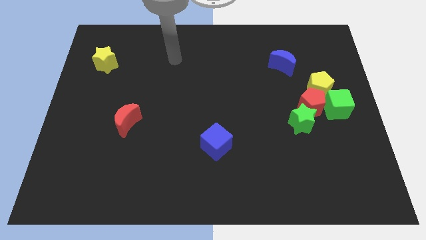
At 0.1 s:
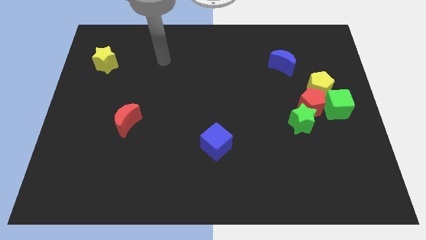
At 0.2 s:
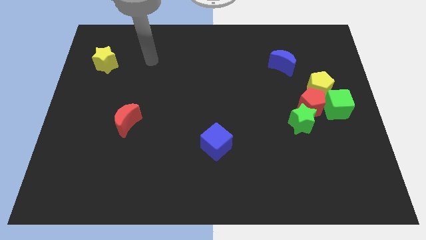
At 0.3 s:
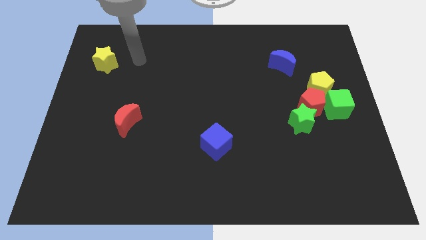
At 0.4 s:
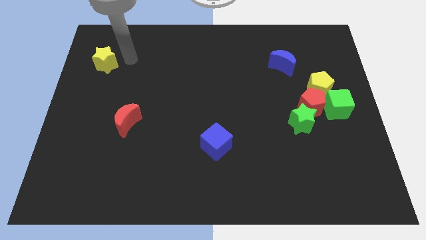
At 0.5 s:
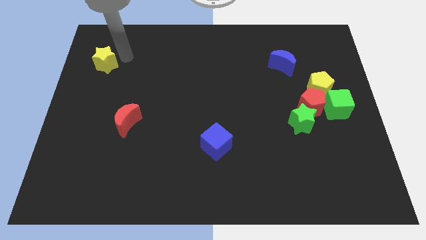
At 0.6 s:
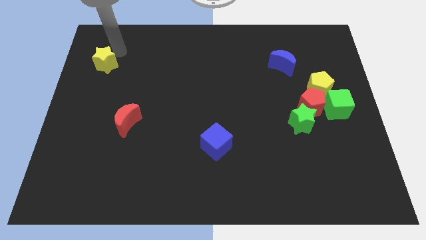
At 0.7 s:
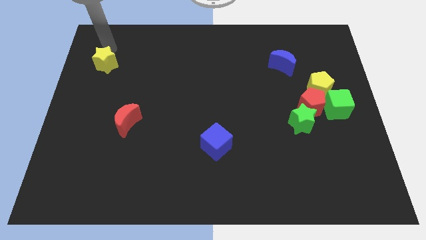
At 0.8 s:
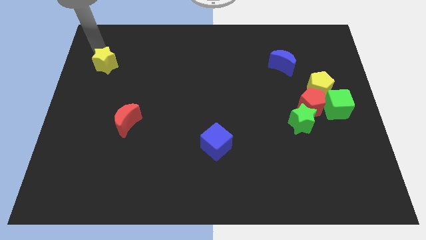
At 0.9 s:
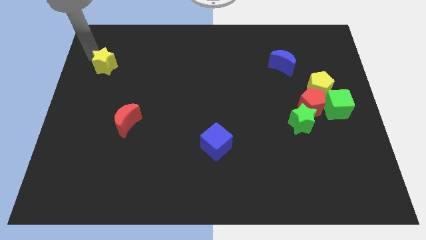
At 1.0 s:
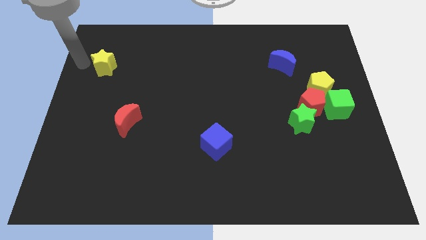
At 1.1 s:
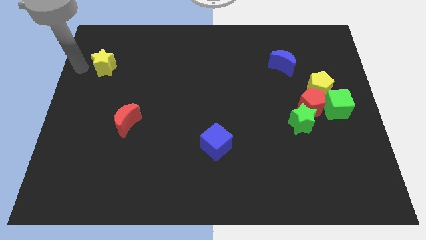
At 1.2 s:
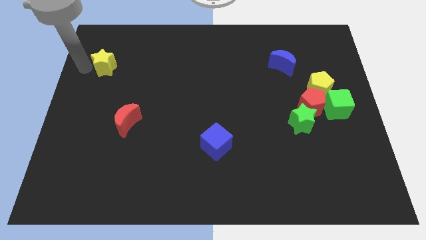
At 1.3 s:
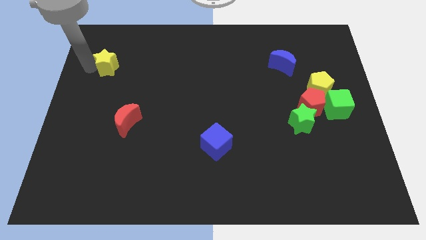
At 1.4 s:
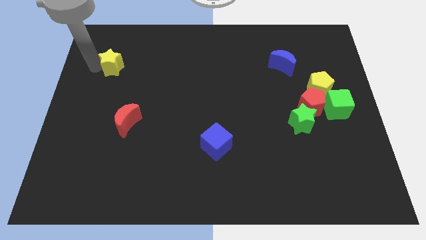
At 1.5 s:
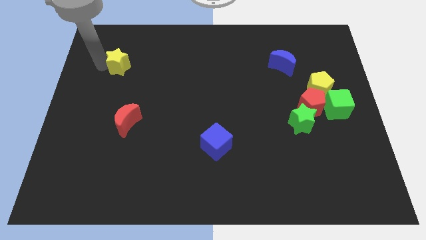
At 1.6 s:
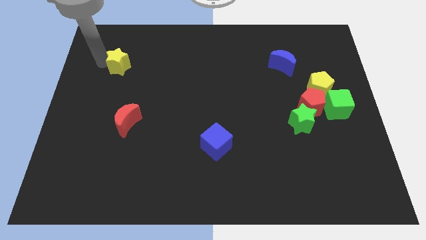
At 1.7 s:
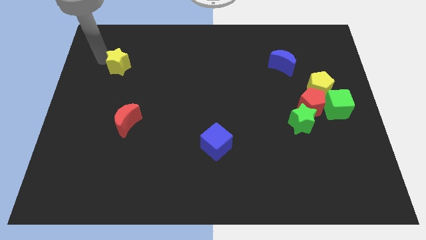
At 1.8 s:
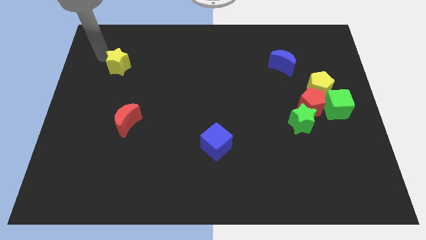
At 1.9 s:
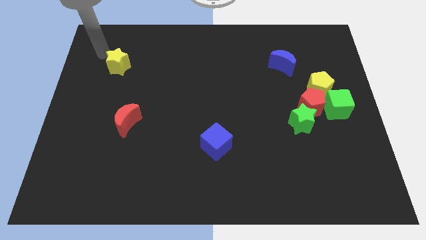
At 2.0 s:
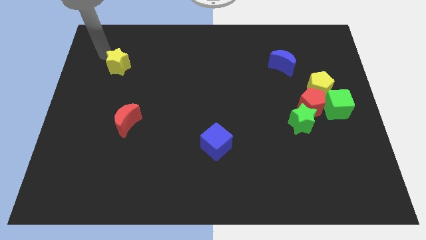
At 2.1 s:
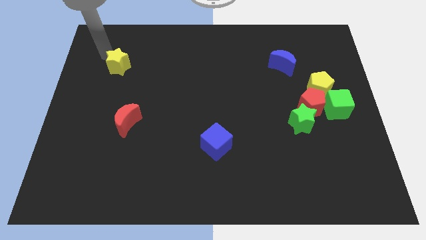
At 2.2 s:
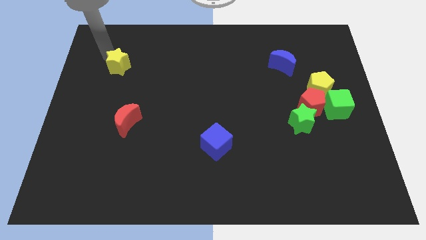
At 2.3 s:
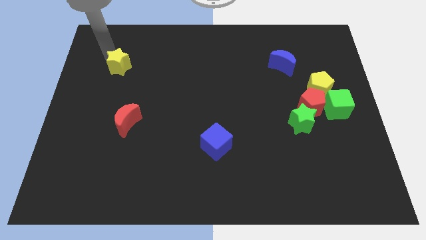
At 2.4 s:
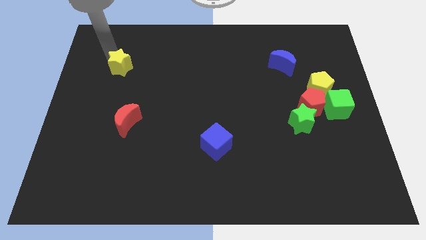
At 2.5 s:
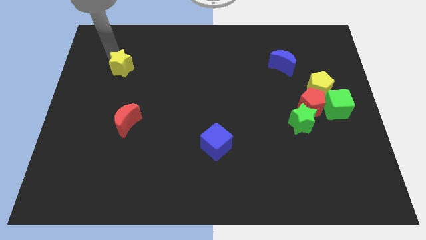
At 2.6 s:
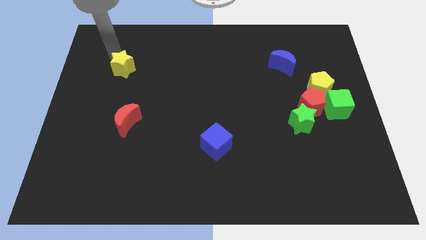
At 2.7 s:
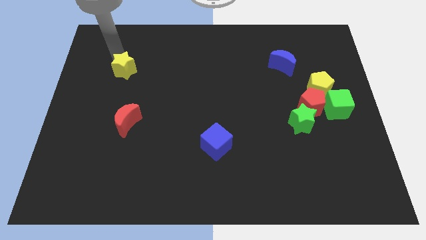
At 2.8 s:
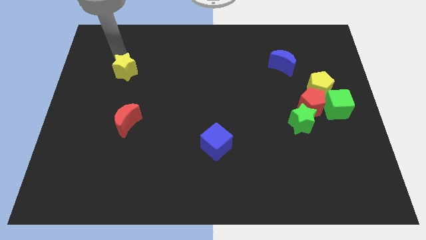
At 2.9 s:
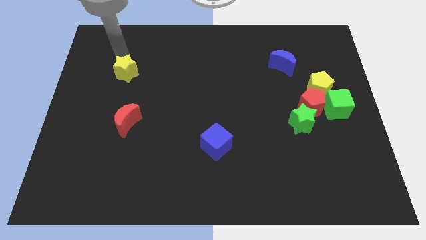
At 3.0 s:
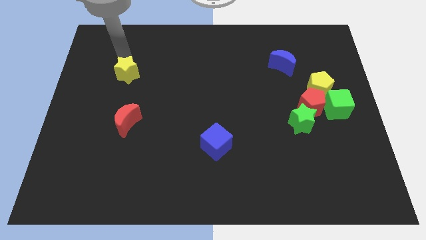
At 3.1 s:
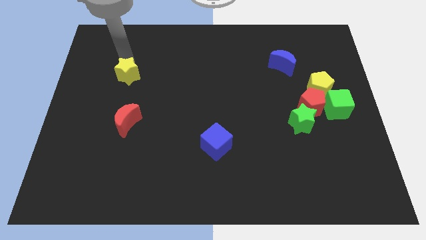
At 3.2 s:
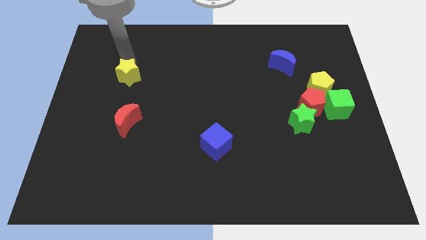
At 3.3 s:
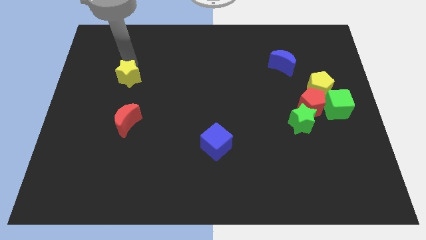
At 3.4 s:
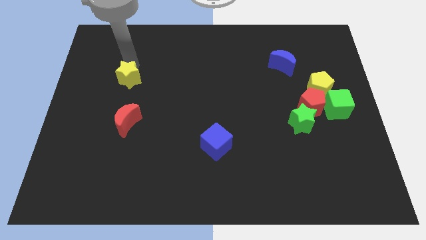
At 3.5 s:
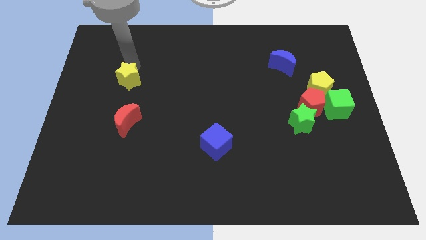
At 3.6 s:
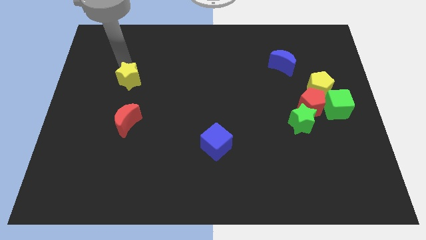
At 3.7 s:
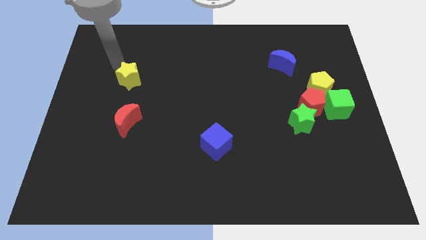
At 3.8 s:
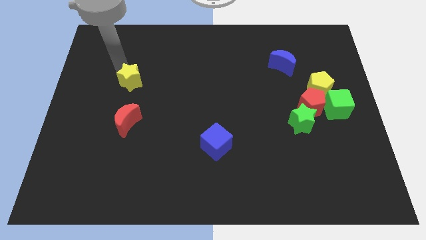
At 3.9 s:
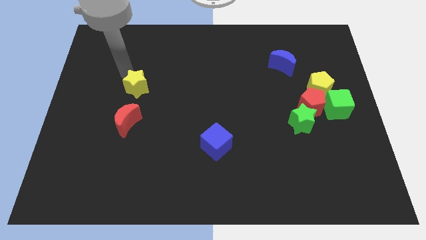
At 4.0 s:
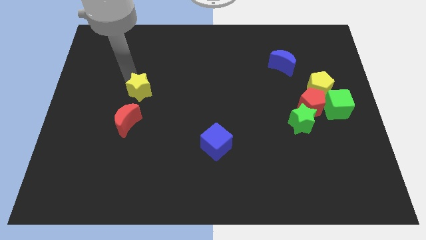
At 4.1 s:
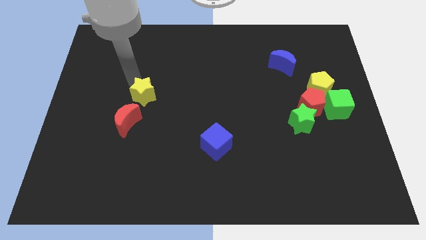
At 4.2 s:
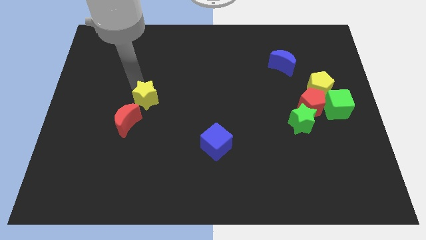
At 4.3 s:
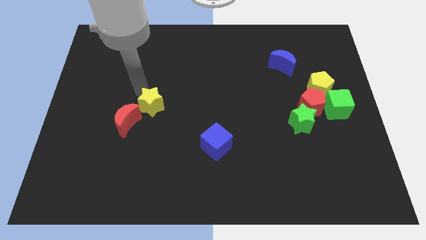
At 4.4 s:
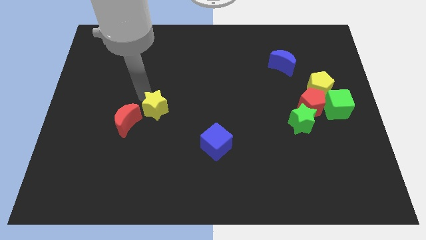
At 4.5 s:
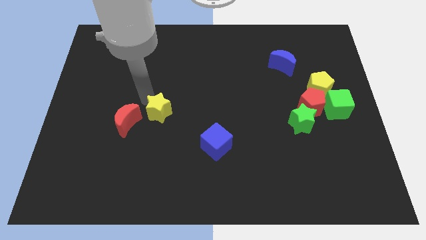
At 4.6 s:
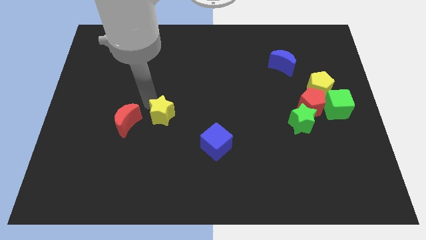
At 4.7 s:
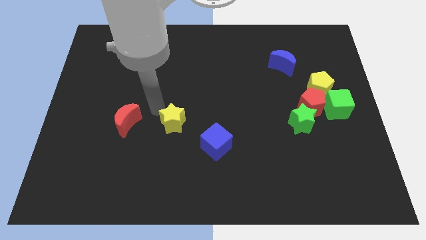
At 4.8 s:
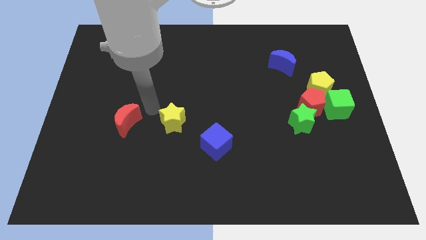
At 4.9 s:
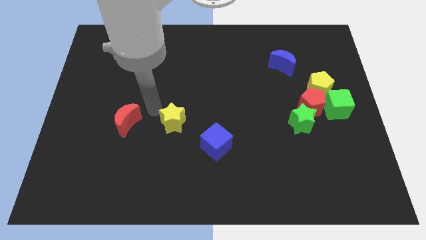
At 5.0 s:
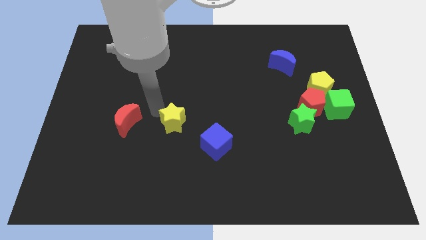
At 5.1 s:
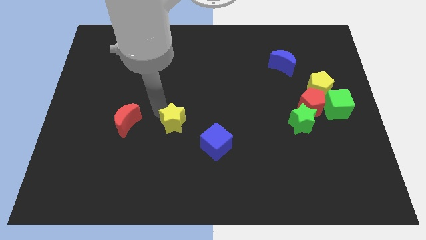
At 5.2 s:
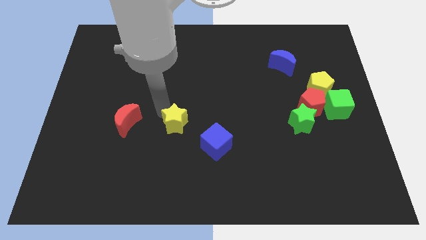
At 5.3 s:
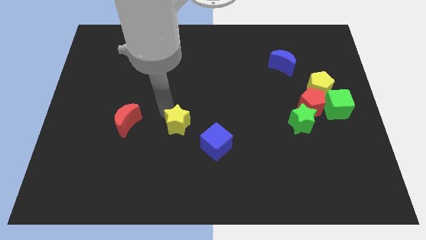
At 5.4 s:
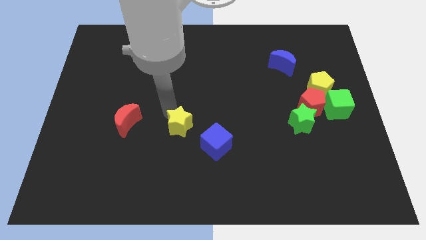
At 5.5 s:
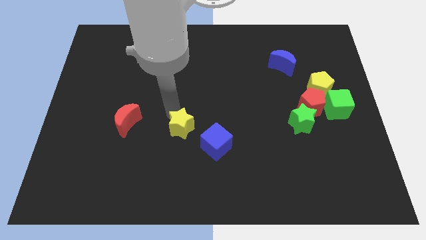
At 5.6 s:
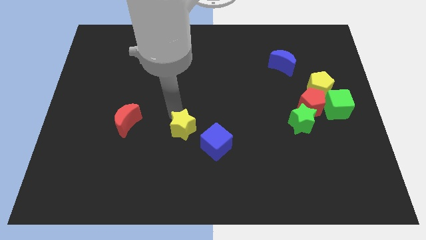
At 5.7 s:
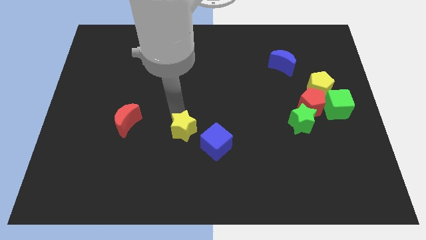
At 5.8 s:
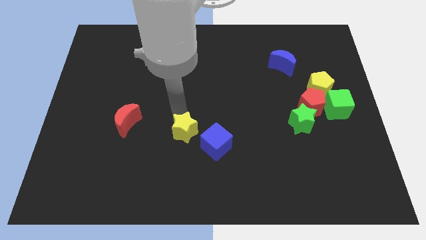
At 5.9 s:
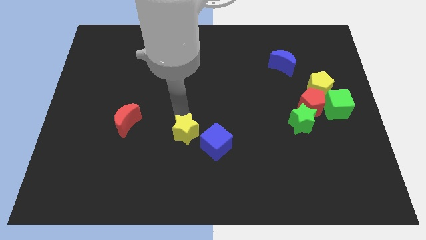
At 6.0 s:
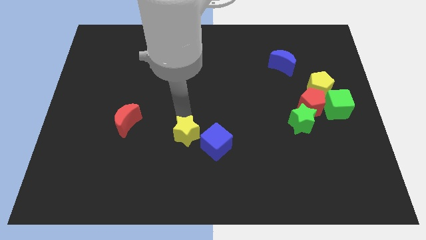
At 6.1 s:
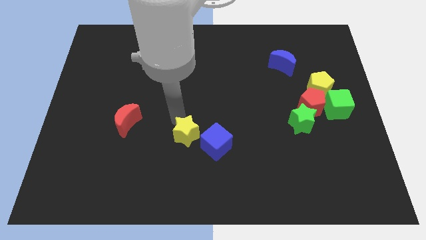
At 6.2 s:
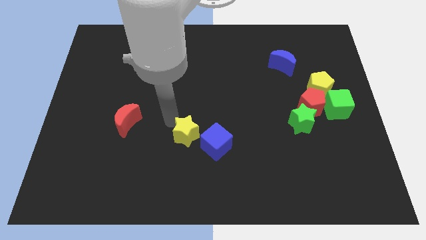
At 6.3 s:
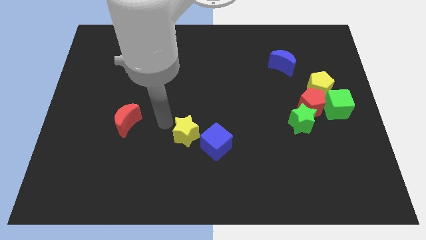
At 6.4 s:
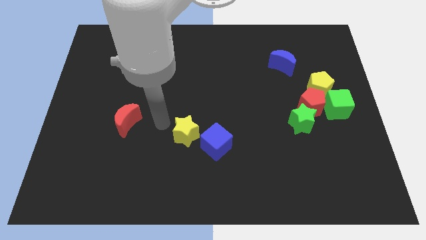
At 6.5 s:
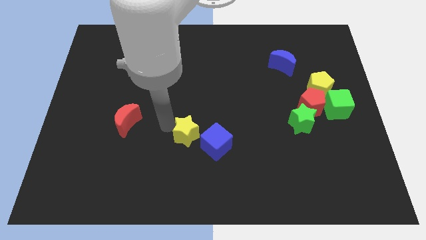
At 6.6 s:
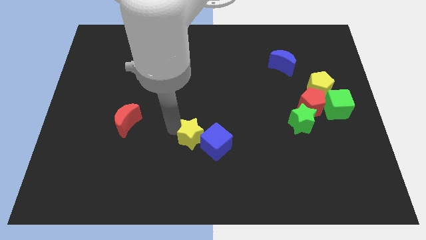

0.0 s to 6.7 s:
put the yellow star to the blue cube

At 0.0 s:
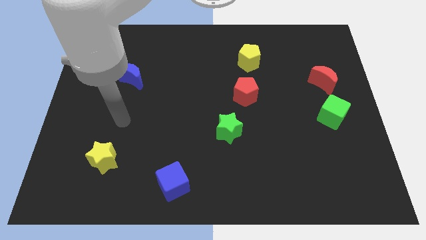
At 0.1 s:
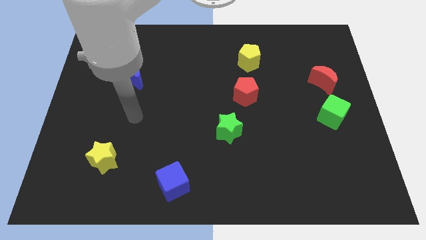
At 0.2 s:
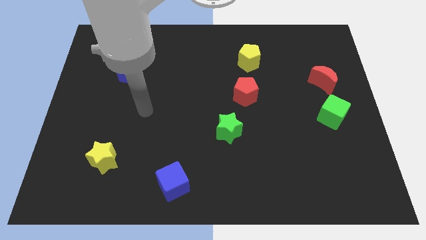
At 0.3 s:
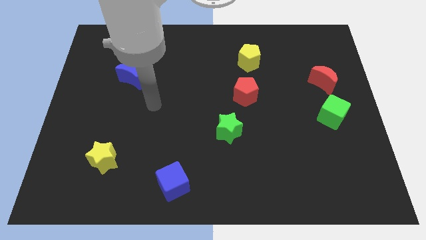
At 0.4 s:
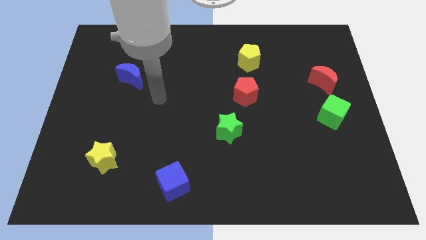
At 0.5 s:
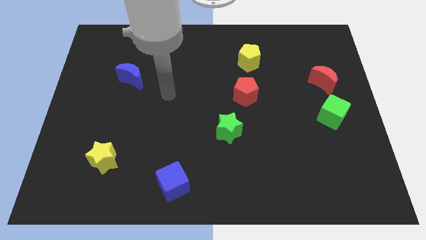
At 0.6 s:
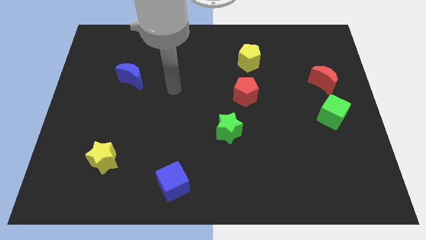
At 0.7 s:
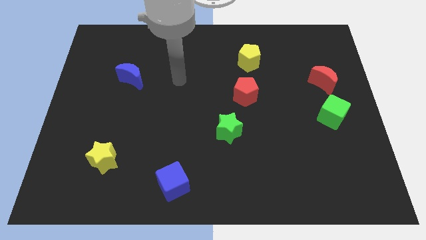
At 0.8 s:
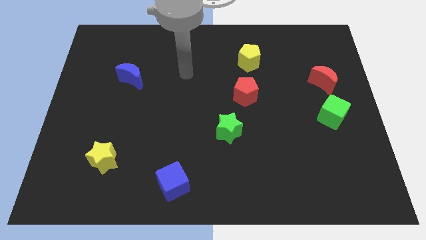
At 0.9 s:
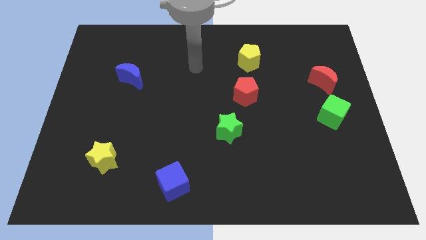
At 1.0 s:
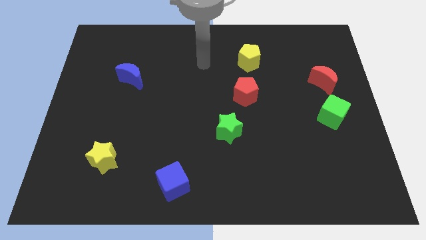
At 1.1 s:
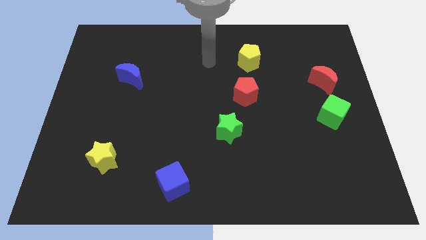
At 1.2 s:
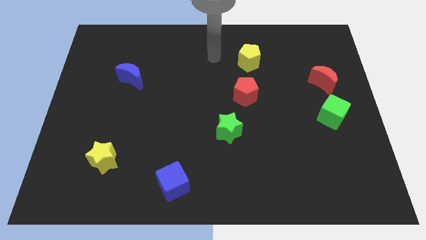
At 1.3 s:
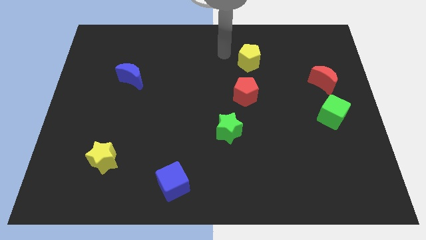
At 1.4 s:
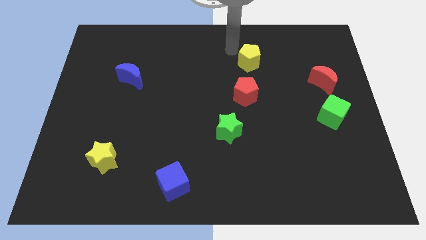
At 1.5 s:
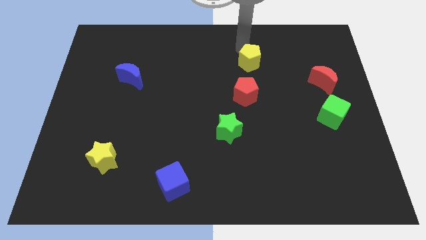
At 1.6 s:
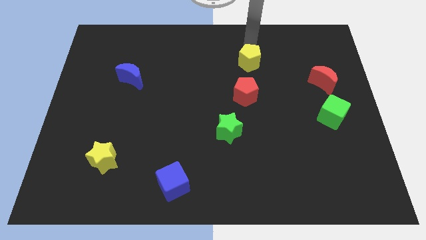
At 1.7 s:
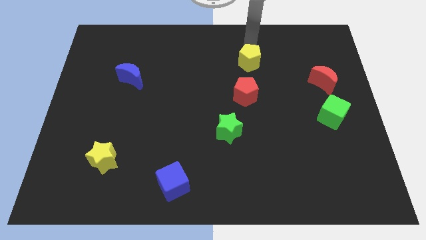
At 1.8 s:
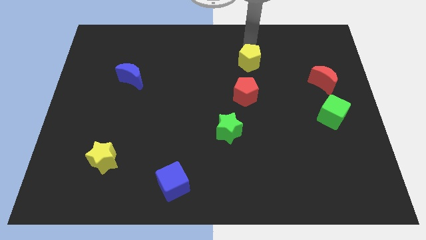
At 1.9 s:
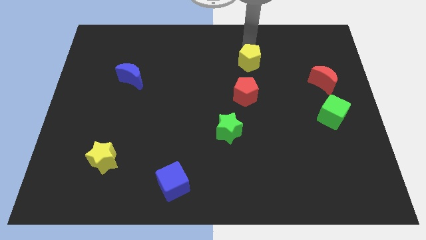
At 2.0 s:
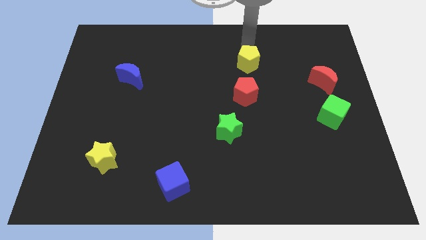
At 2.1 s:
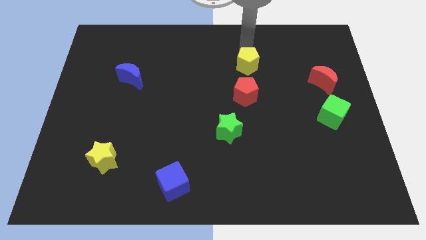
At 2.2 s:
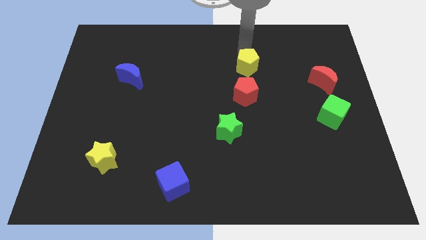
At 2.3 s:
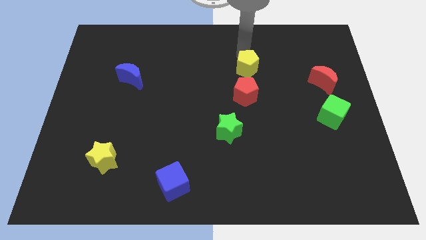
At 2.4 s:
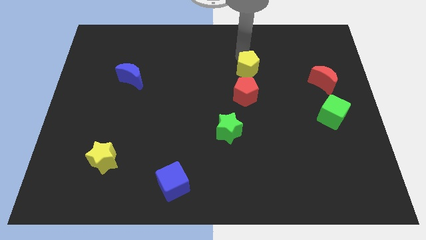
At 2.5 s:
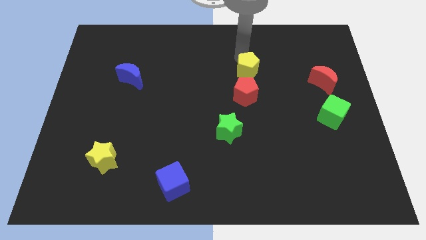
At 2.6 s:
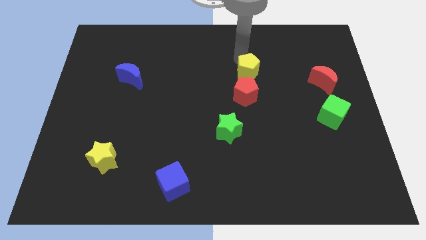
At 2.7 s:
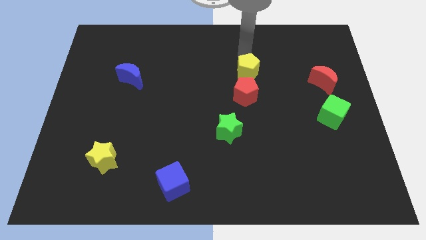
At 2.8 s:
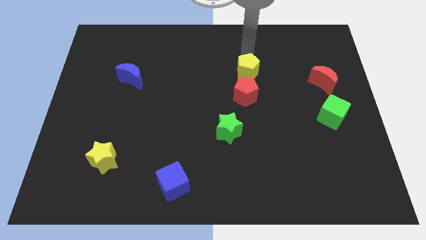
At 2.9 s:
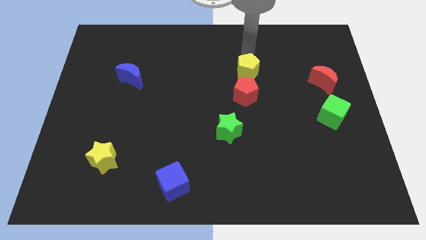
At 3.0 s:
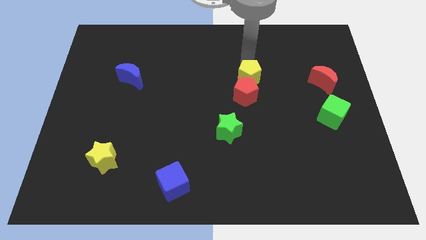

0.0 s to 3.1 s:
slide the yellow pentagon towards the red pentagon
